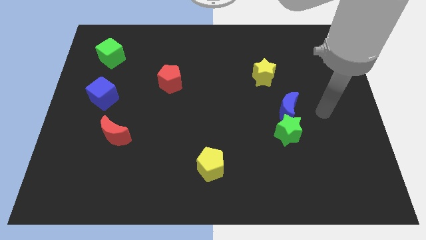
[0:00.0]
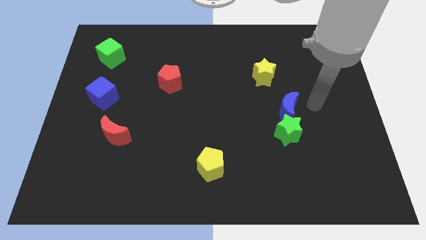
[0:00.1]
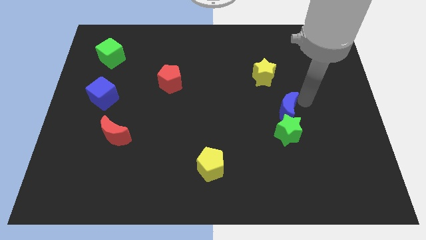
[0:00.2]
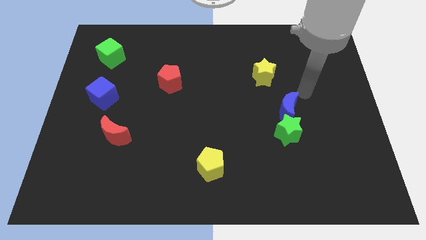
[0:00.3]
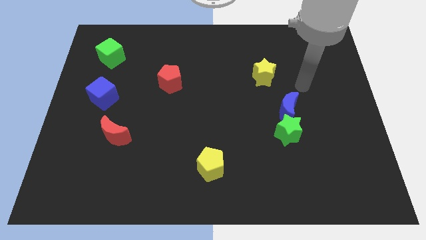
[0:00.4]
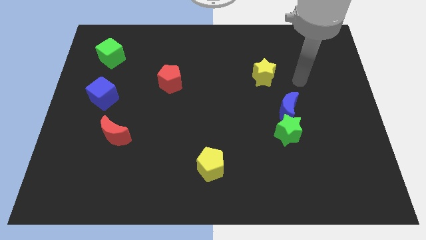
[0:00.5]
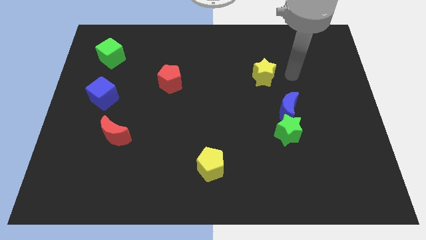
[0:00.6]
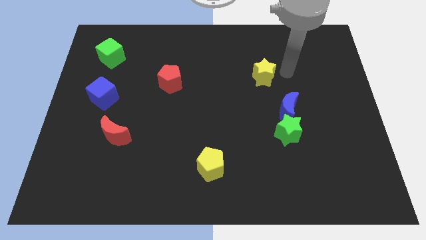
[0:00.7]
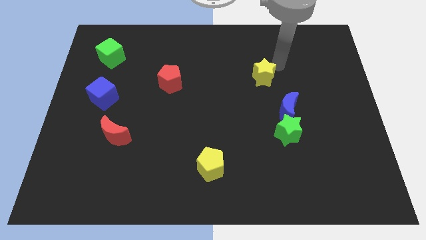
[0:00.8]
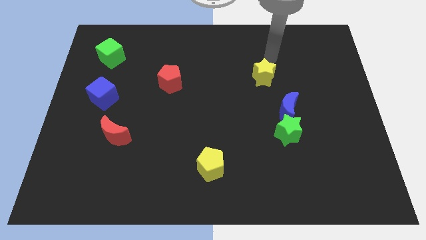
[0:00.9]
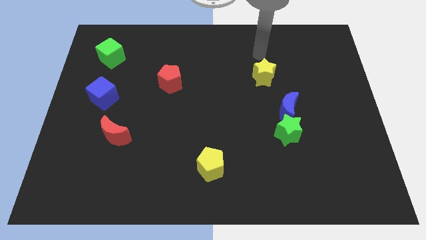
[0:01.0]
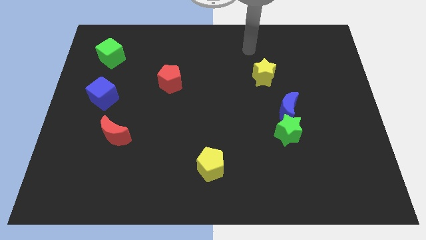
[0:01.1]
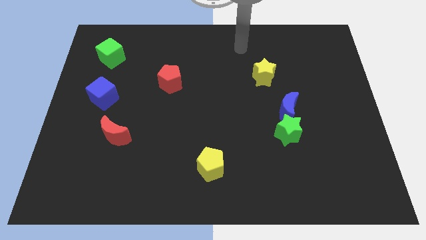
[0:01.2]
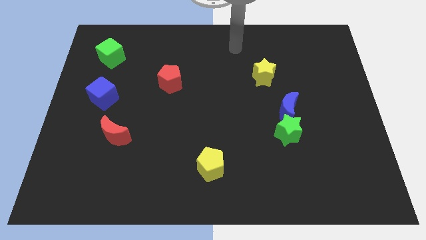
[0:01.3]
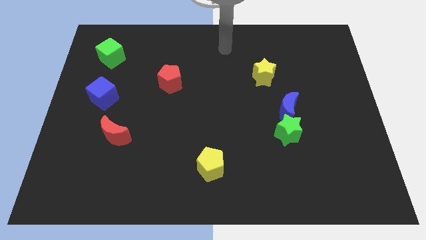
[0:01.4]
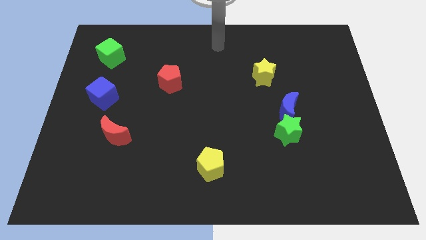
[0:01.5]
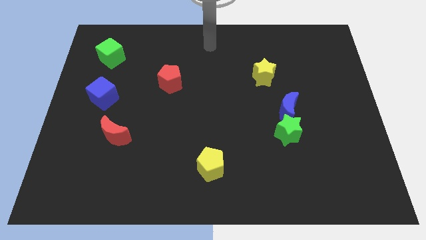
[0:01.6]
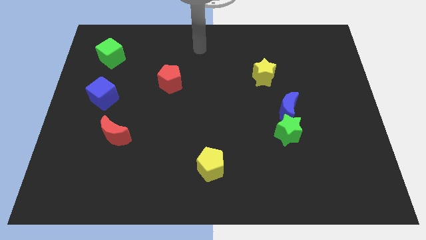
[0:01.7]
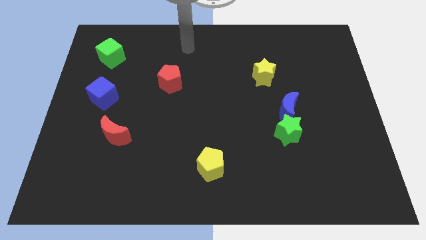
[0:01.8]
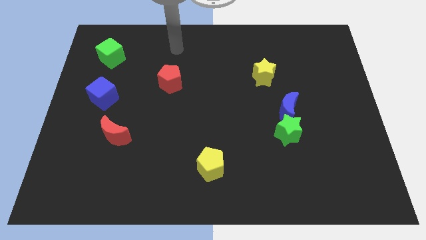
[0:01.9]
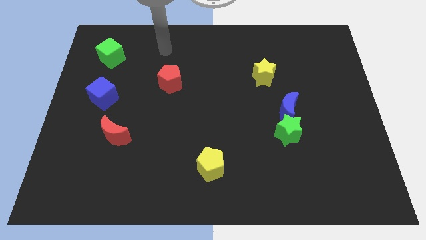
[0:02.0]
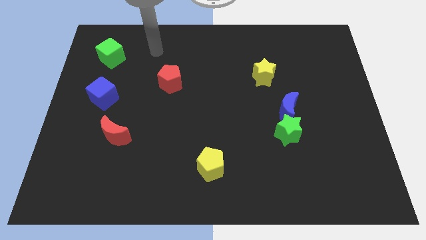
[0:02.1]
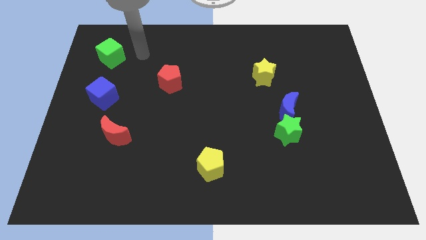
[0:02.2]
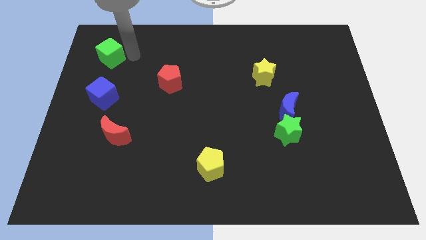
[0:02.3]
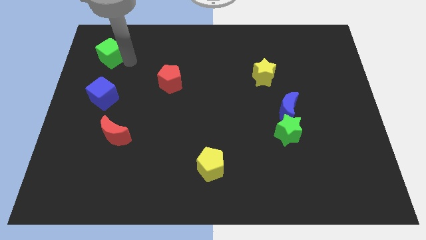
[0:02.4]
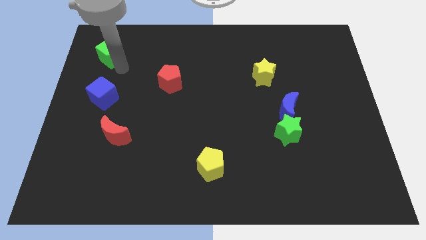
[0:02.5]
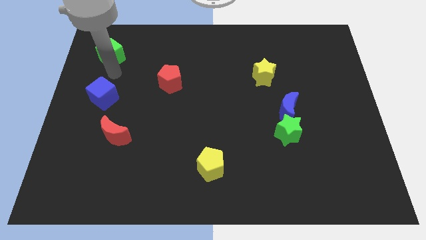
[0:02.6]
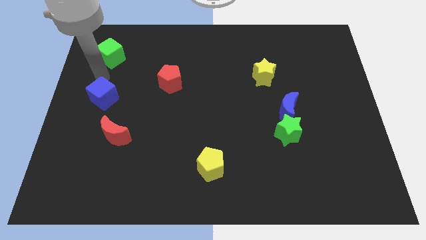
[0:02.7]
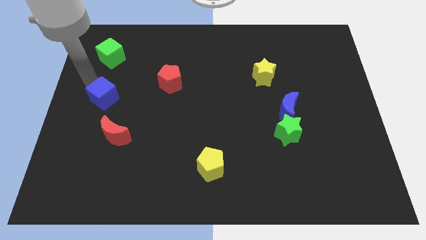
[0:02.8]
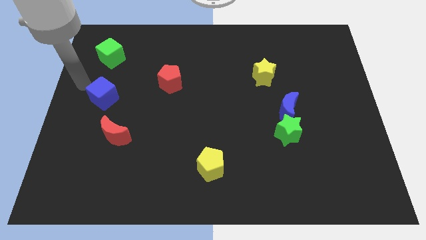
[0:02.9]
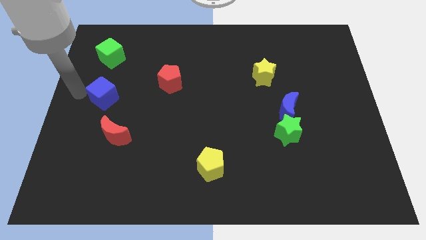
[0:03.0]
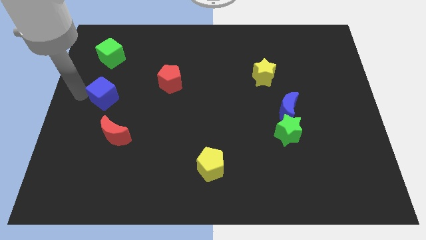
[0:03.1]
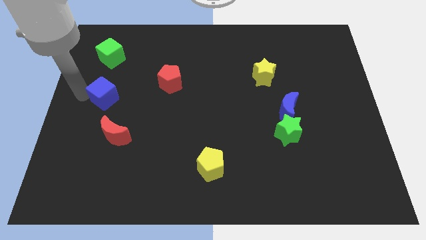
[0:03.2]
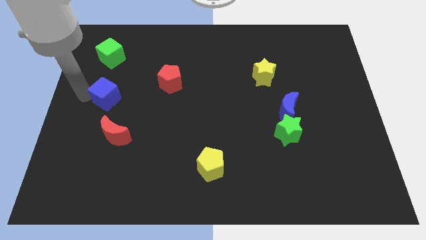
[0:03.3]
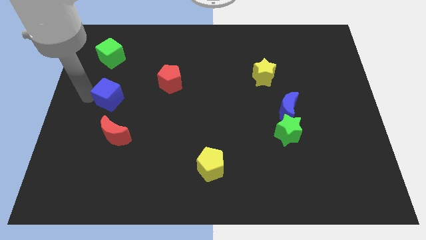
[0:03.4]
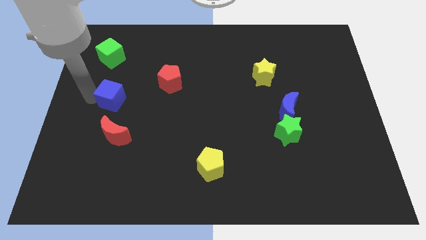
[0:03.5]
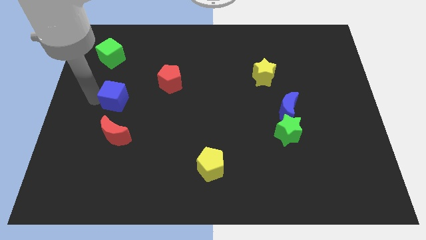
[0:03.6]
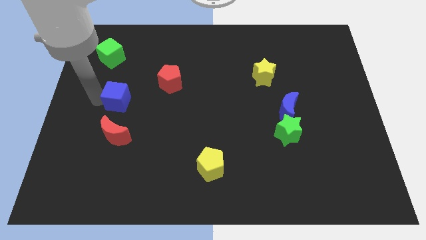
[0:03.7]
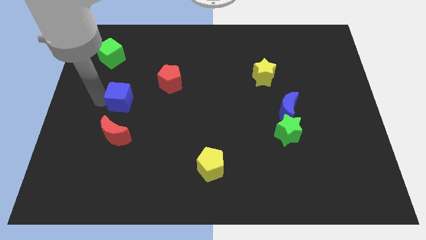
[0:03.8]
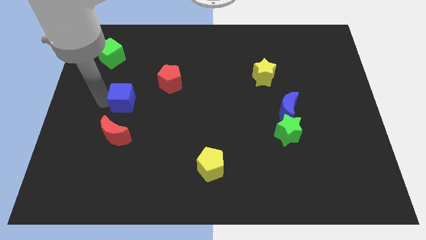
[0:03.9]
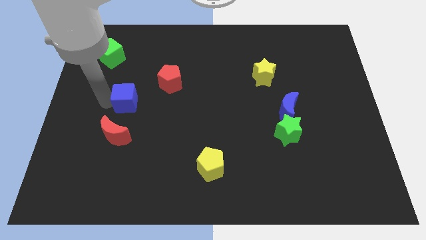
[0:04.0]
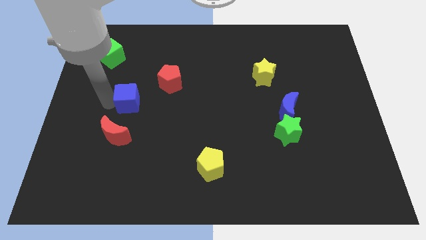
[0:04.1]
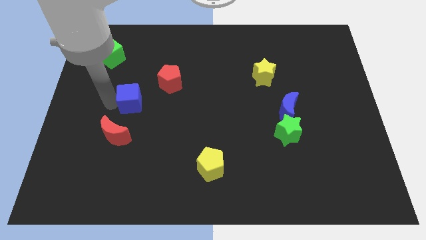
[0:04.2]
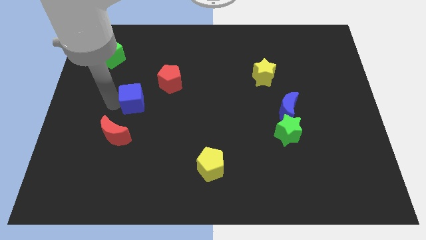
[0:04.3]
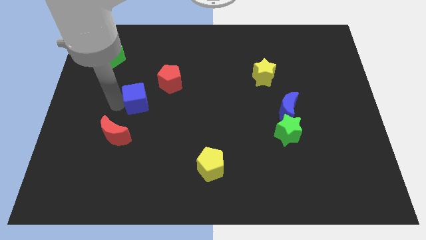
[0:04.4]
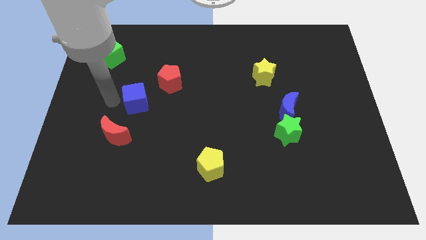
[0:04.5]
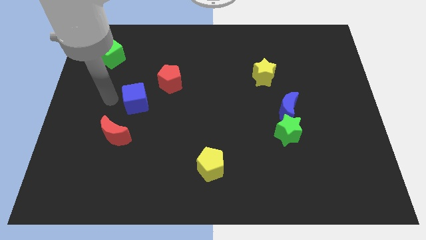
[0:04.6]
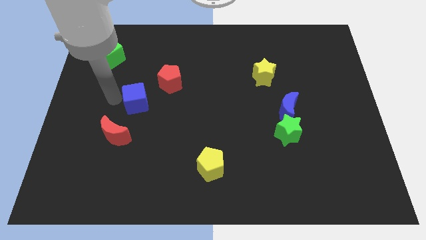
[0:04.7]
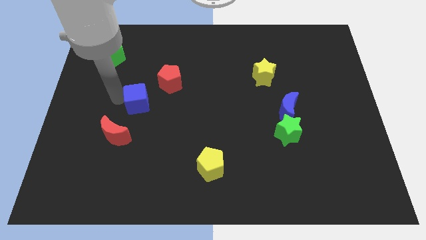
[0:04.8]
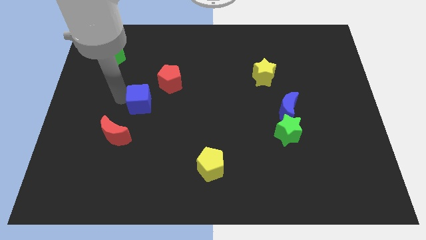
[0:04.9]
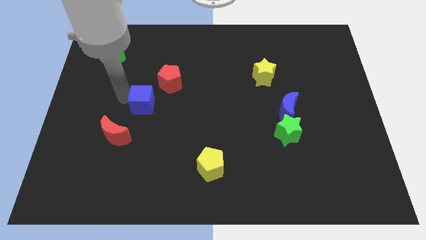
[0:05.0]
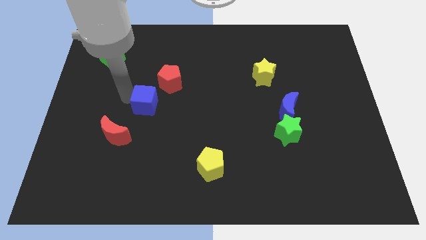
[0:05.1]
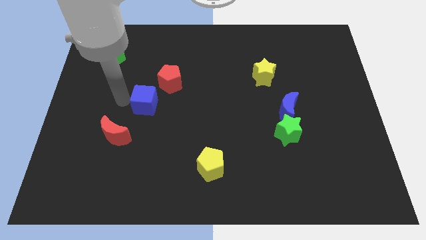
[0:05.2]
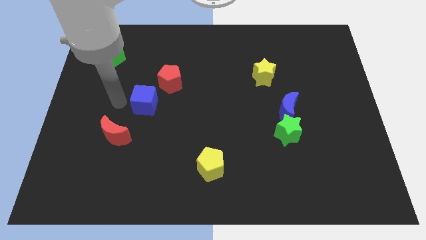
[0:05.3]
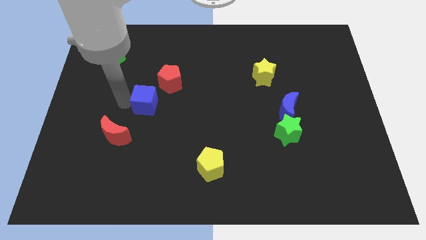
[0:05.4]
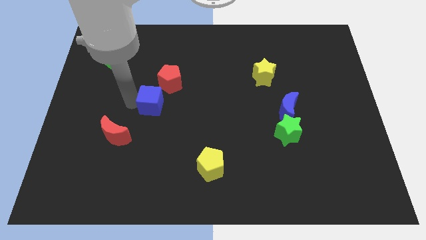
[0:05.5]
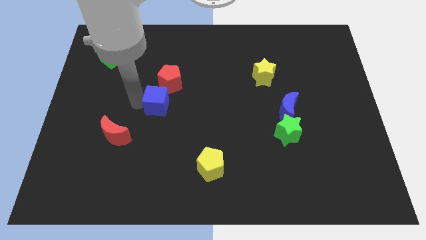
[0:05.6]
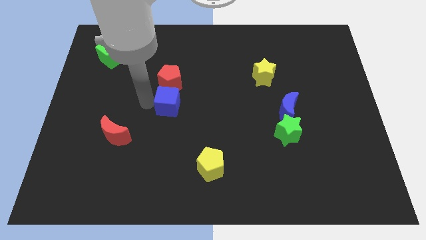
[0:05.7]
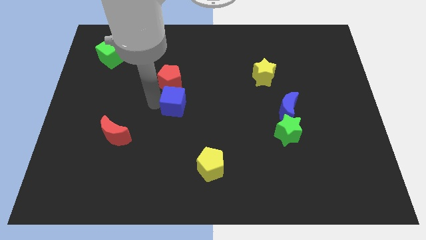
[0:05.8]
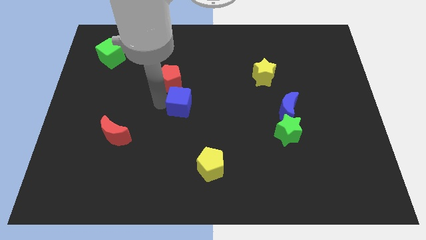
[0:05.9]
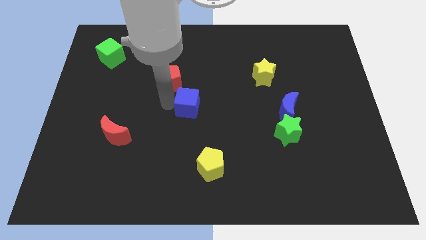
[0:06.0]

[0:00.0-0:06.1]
move the blue cube right

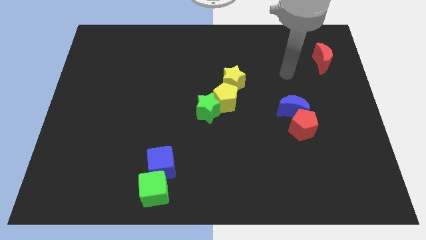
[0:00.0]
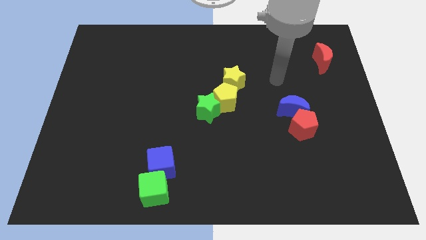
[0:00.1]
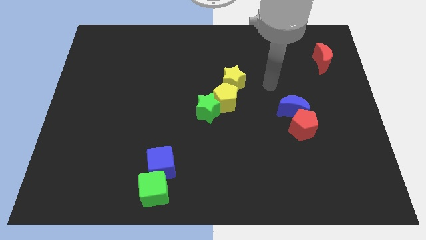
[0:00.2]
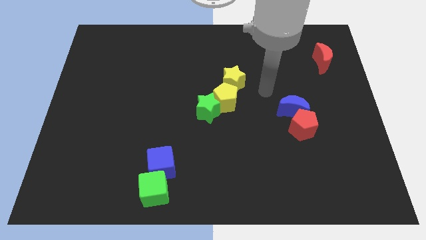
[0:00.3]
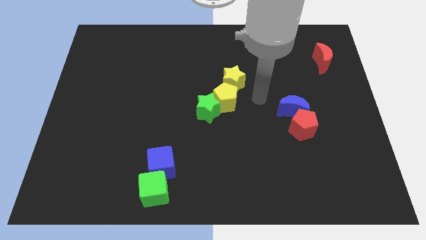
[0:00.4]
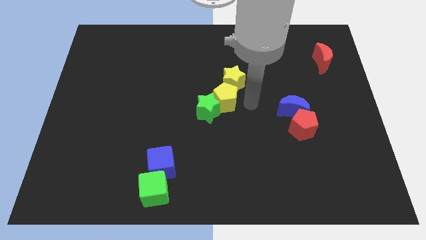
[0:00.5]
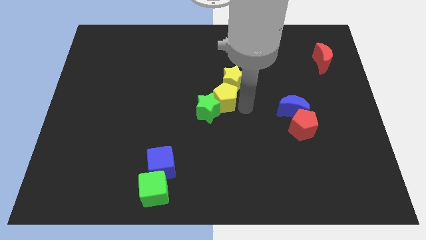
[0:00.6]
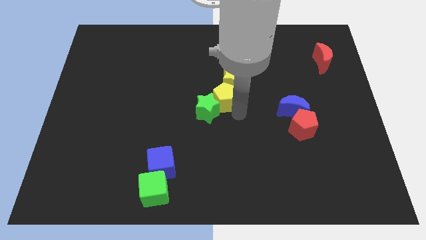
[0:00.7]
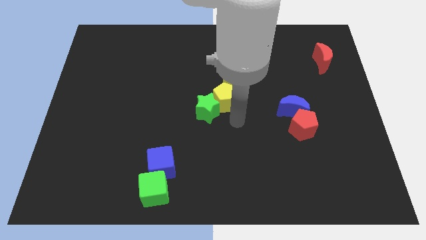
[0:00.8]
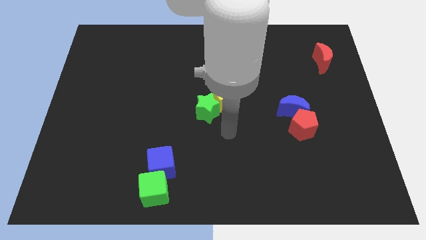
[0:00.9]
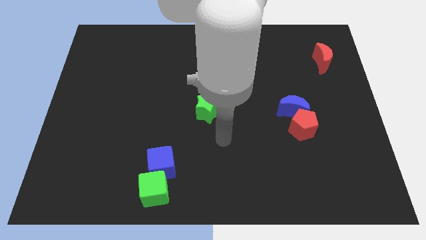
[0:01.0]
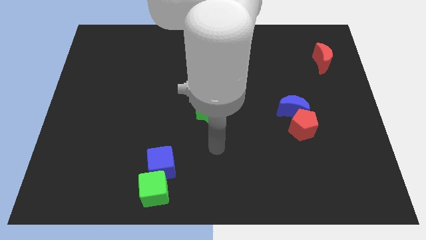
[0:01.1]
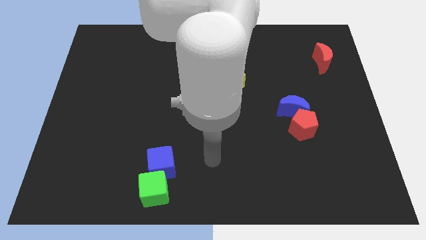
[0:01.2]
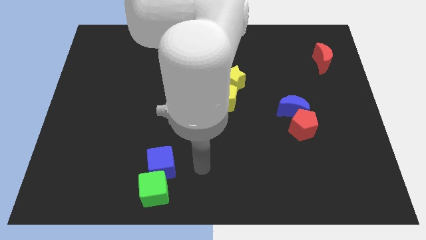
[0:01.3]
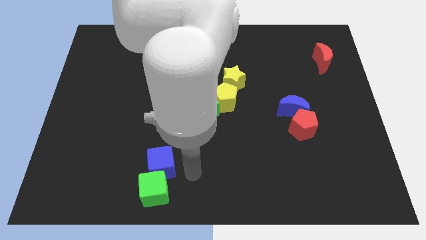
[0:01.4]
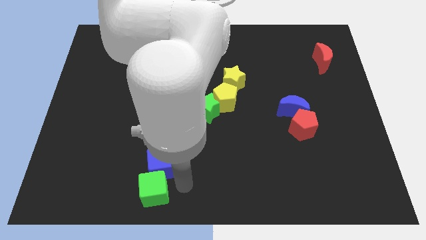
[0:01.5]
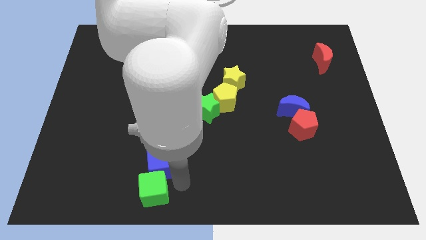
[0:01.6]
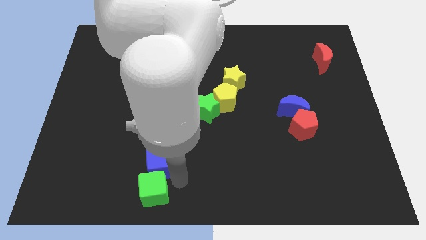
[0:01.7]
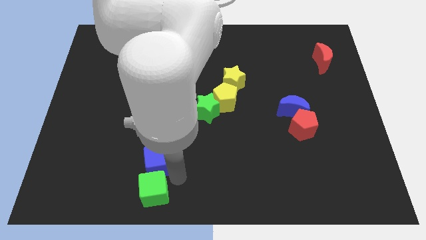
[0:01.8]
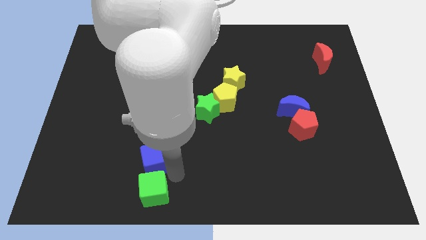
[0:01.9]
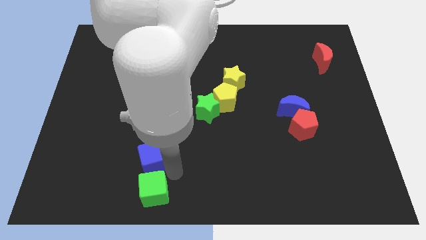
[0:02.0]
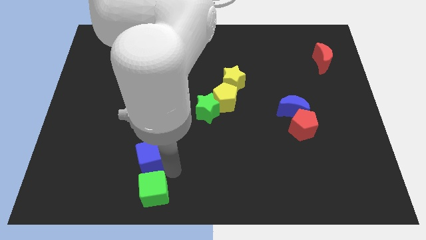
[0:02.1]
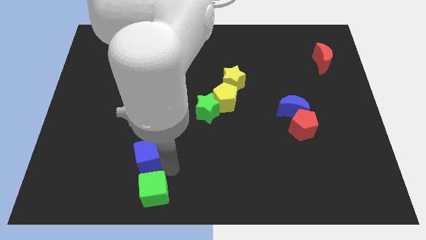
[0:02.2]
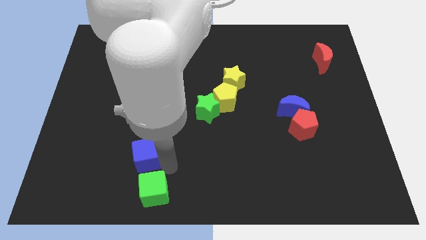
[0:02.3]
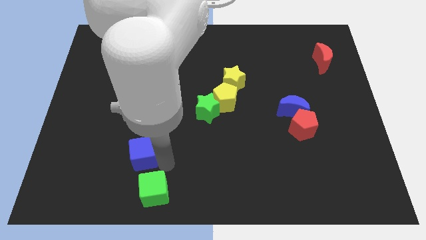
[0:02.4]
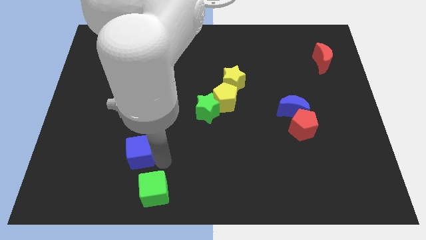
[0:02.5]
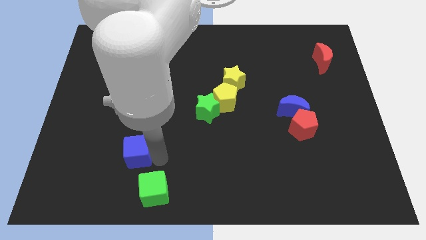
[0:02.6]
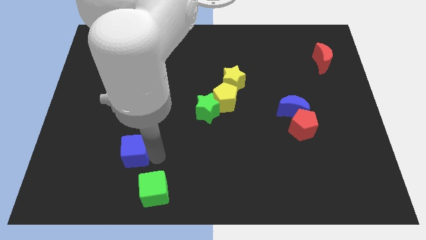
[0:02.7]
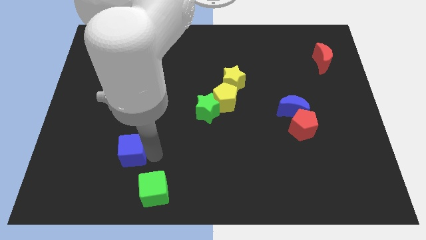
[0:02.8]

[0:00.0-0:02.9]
push the blue cube a little bit upwards and to the left
